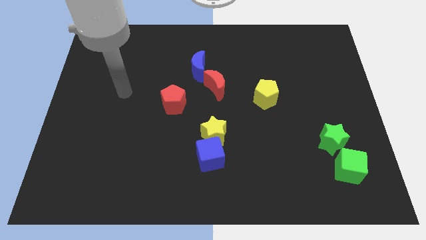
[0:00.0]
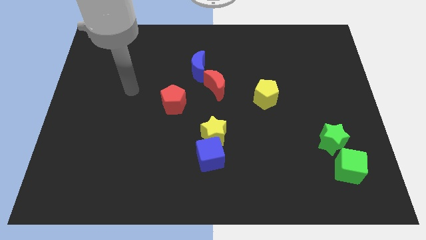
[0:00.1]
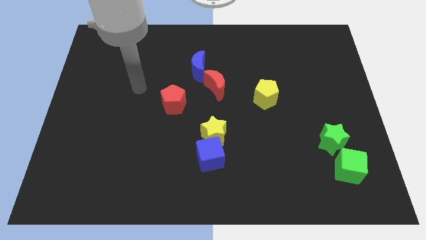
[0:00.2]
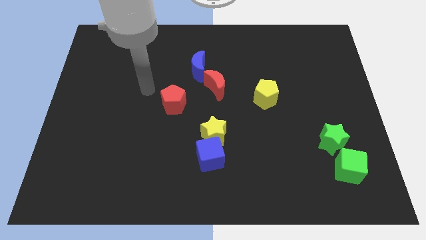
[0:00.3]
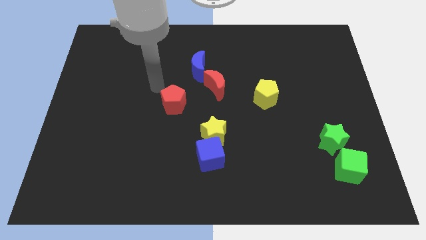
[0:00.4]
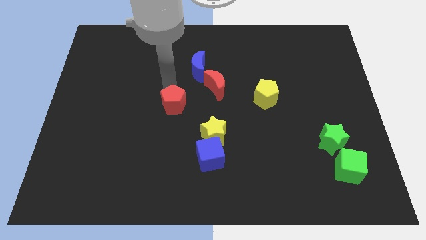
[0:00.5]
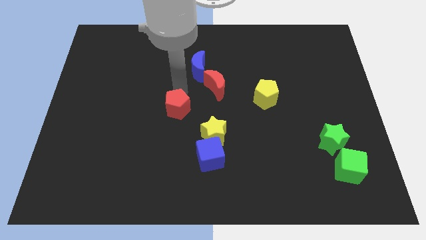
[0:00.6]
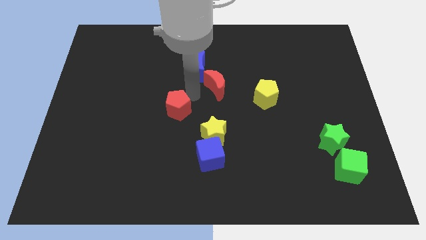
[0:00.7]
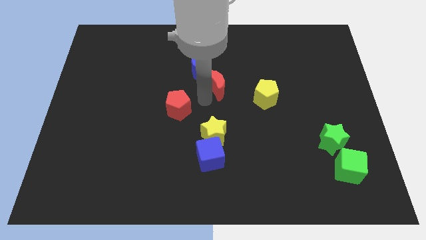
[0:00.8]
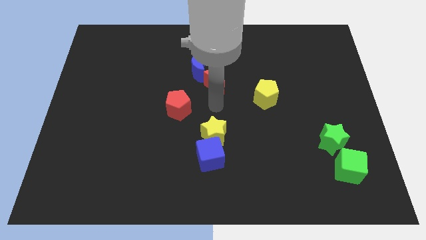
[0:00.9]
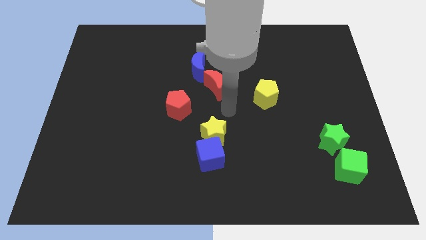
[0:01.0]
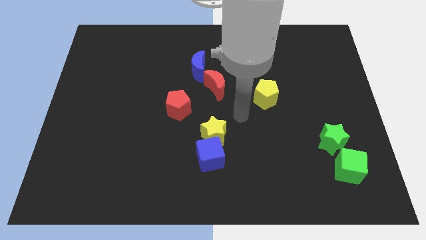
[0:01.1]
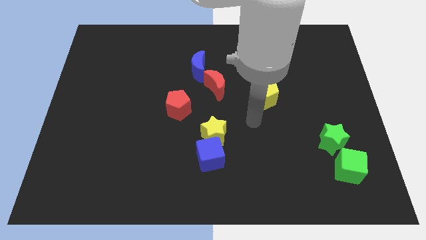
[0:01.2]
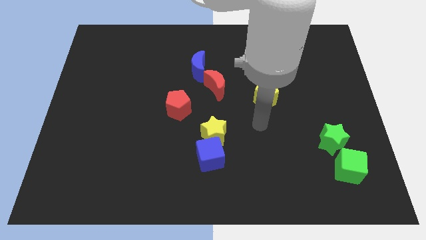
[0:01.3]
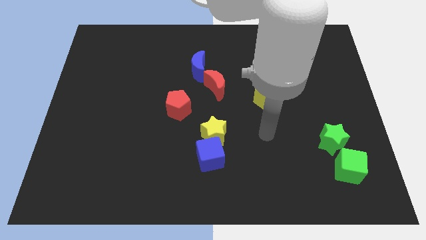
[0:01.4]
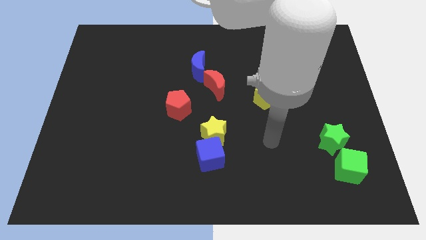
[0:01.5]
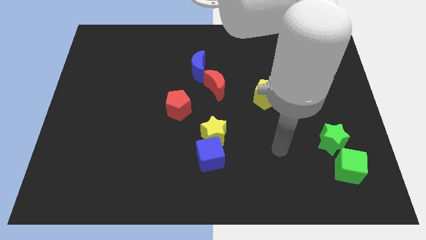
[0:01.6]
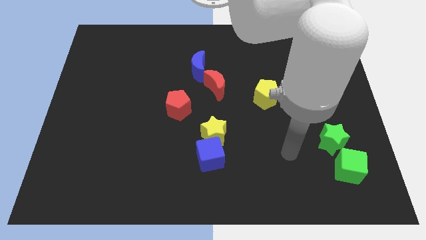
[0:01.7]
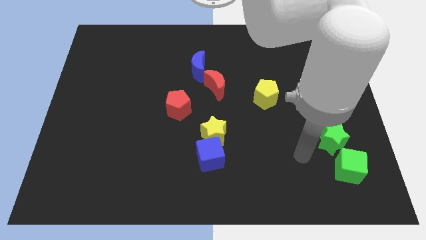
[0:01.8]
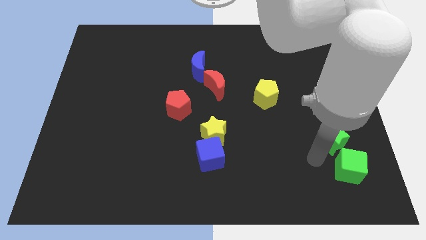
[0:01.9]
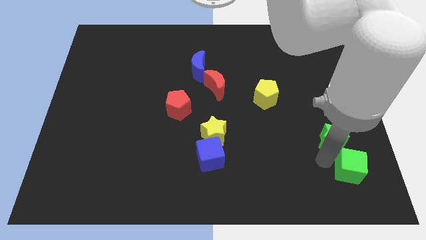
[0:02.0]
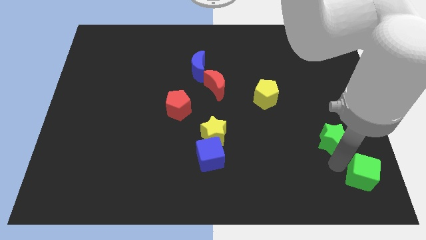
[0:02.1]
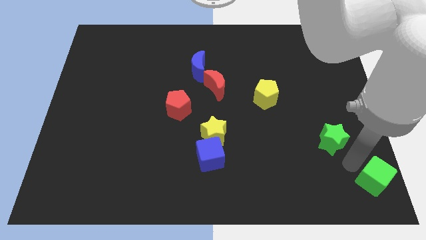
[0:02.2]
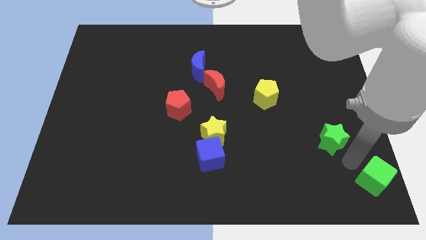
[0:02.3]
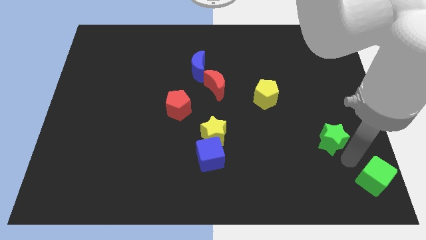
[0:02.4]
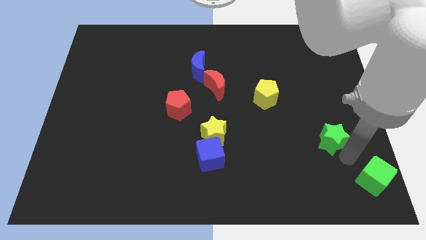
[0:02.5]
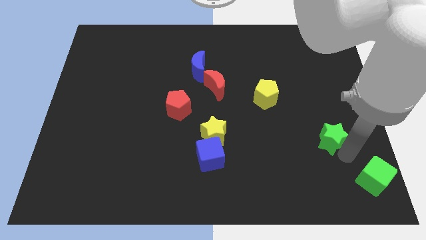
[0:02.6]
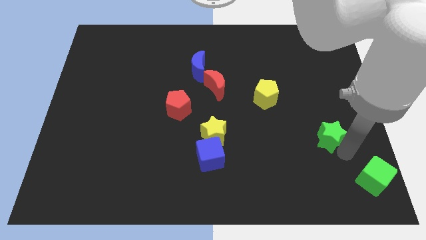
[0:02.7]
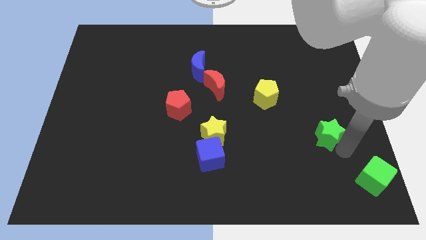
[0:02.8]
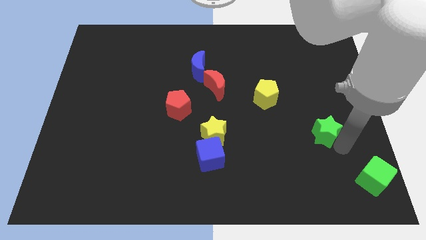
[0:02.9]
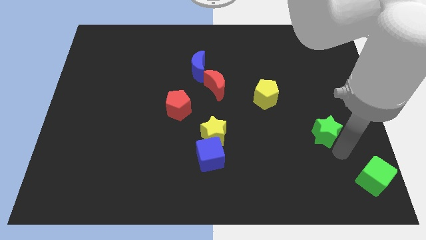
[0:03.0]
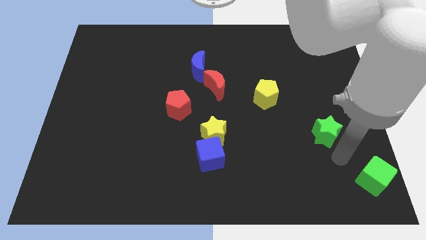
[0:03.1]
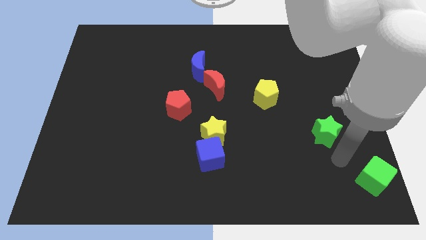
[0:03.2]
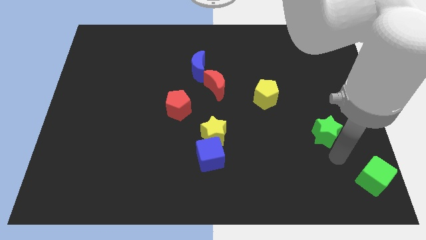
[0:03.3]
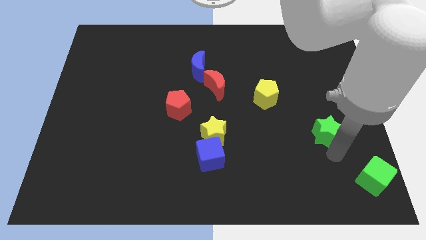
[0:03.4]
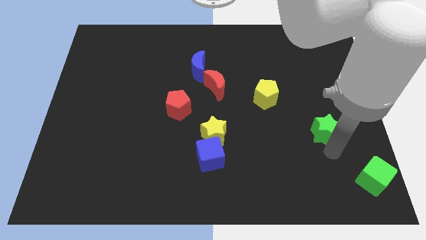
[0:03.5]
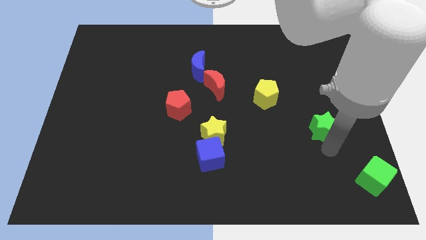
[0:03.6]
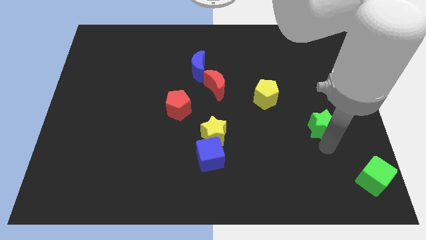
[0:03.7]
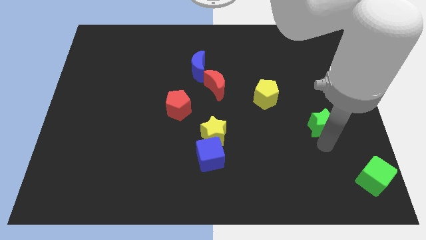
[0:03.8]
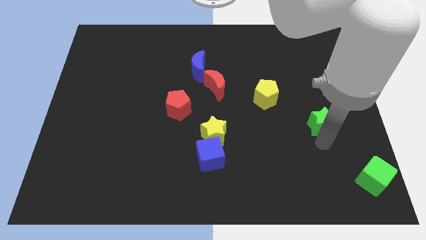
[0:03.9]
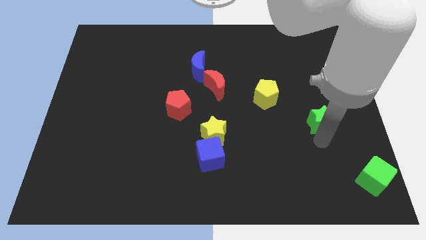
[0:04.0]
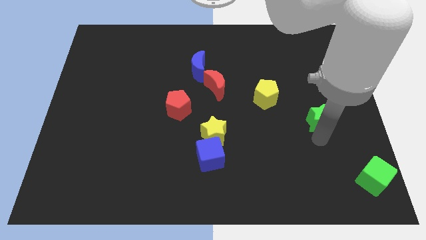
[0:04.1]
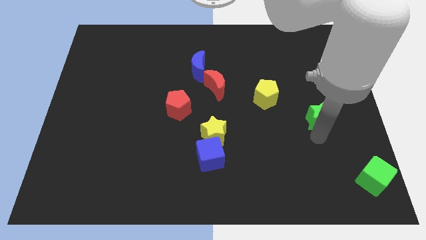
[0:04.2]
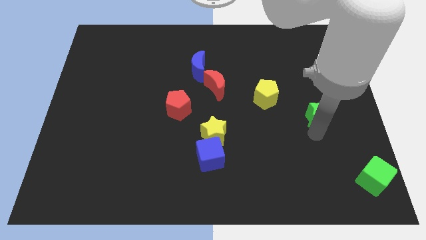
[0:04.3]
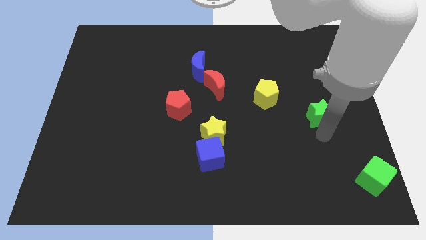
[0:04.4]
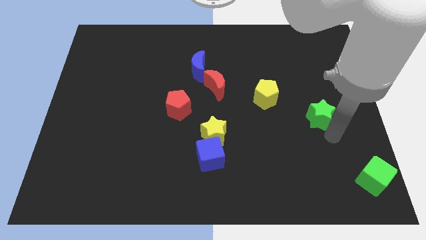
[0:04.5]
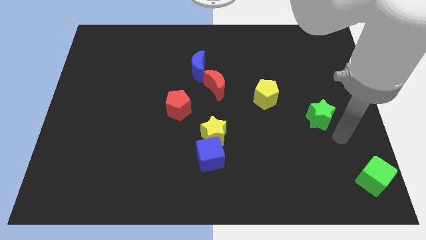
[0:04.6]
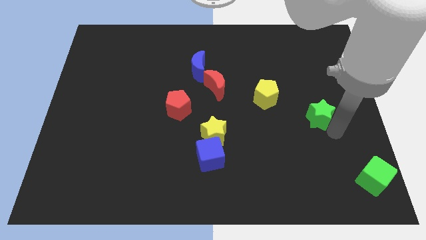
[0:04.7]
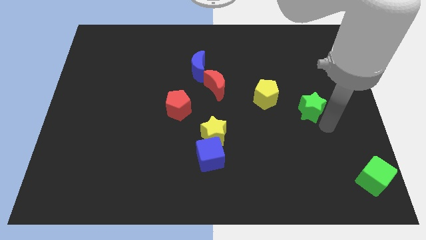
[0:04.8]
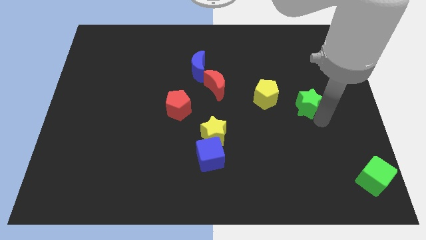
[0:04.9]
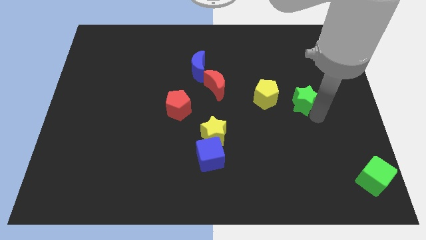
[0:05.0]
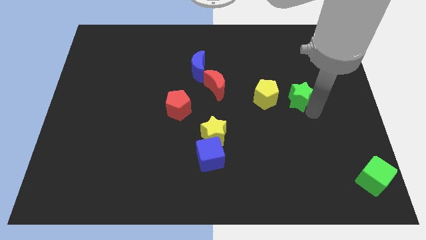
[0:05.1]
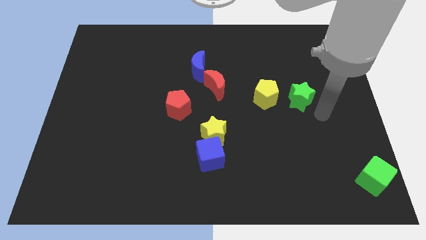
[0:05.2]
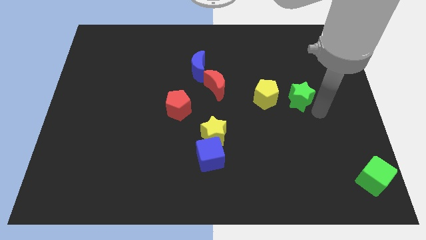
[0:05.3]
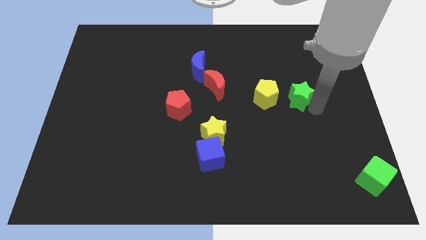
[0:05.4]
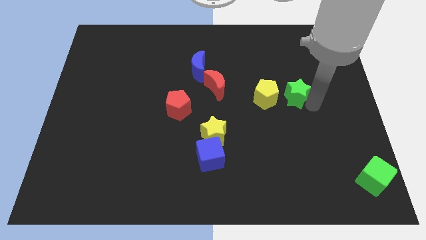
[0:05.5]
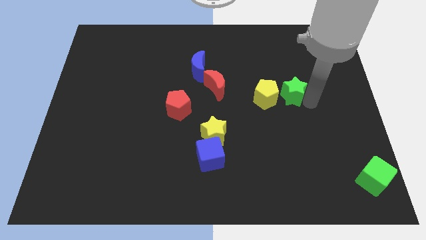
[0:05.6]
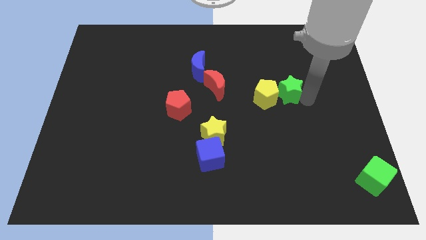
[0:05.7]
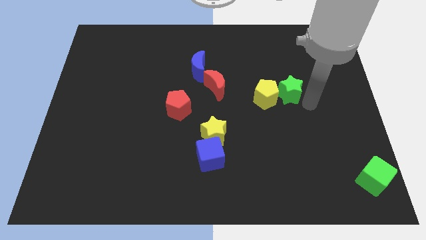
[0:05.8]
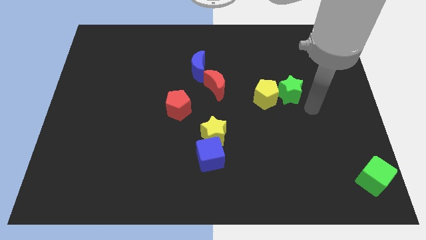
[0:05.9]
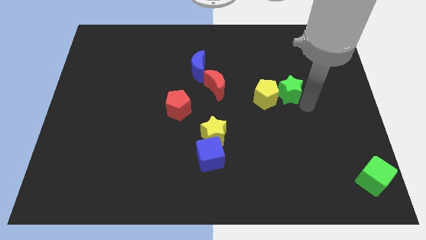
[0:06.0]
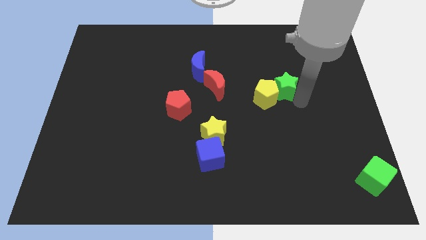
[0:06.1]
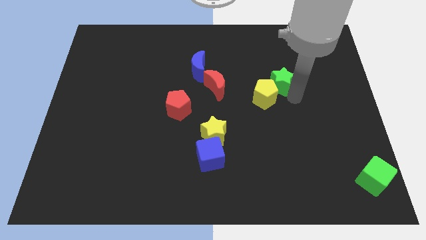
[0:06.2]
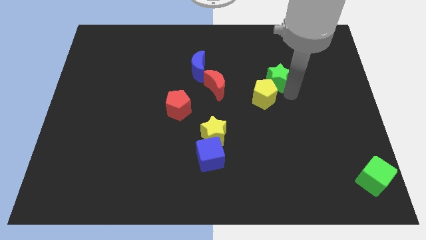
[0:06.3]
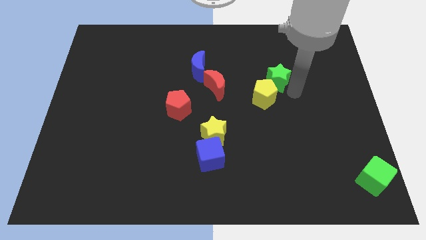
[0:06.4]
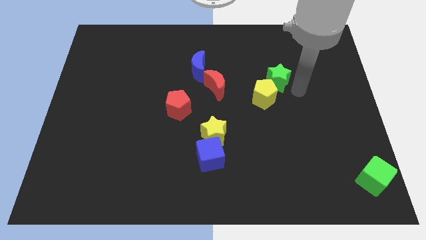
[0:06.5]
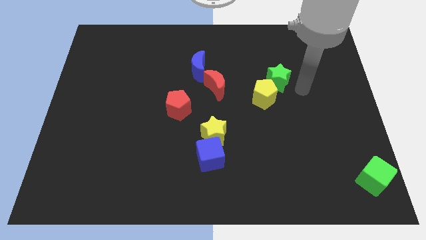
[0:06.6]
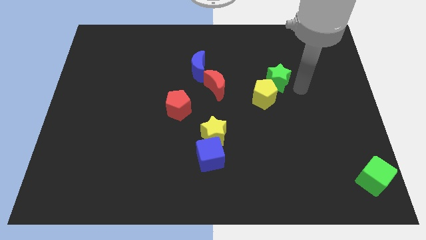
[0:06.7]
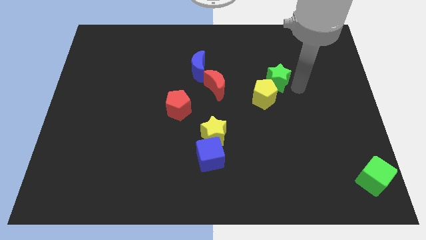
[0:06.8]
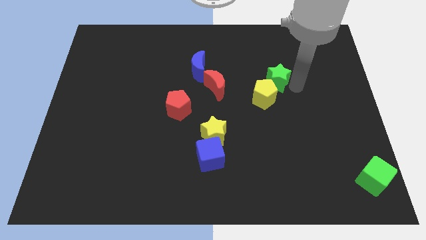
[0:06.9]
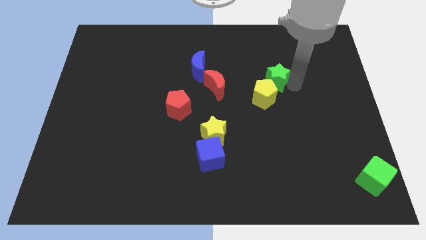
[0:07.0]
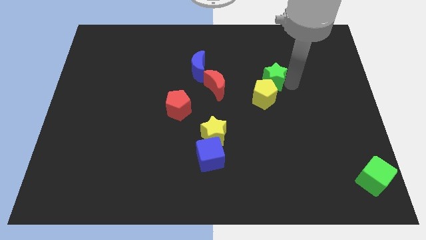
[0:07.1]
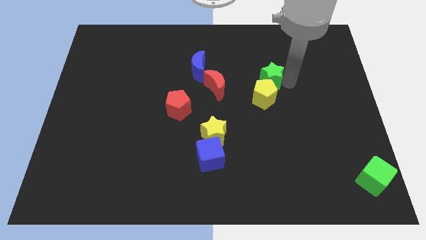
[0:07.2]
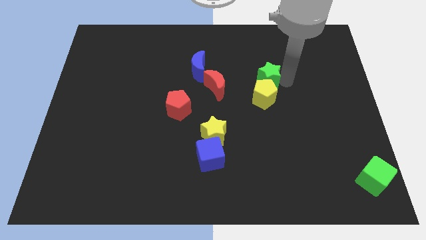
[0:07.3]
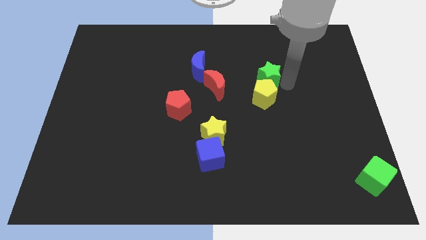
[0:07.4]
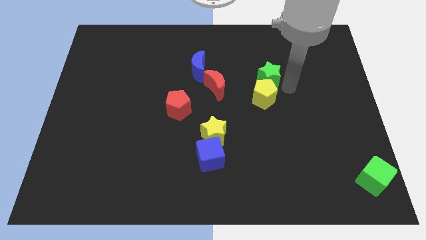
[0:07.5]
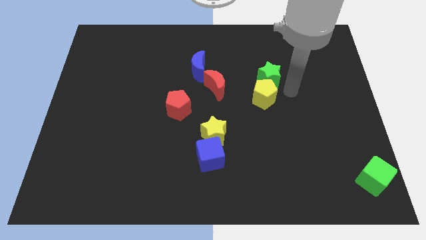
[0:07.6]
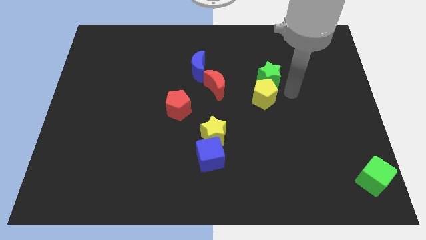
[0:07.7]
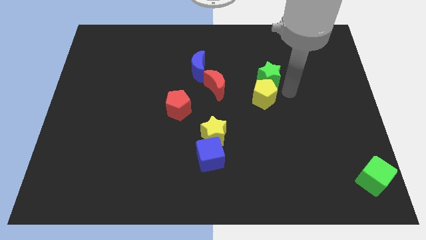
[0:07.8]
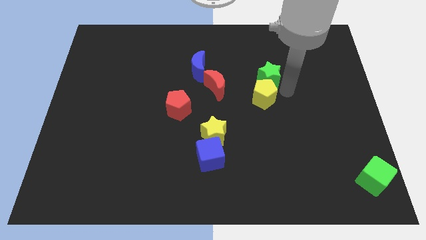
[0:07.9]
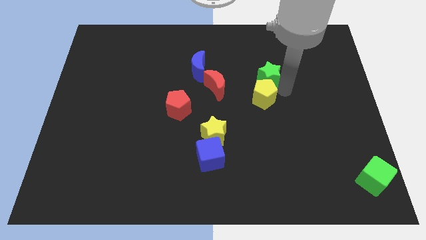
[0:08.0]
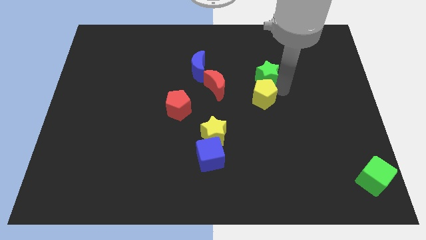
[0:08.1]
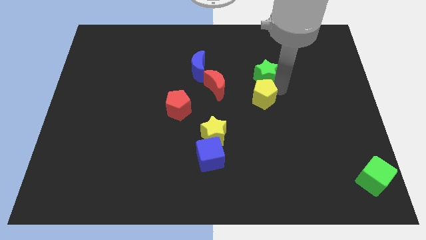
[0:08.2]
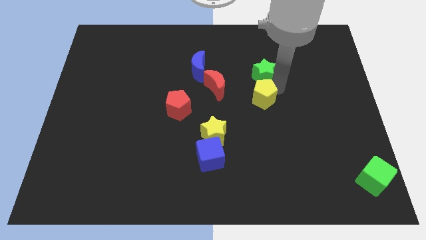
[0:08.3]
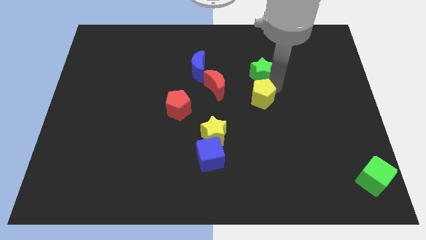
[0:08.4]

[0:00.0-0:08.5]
slide the green star just right of the blue moon
